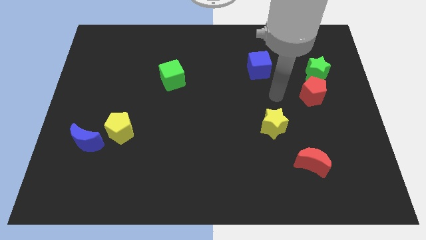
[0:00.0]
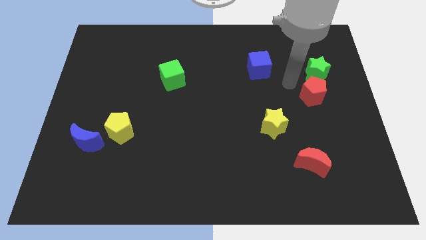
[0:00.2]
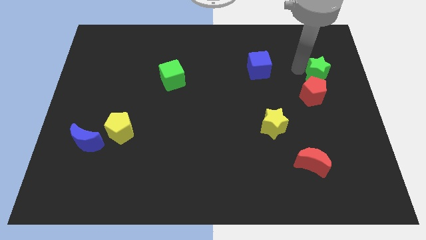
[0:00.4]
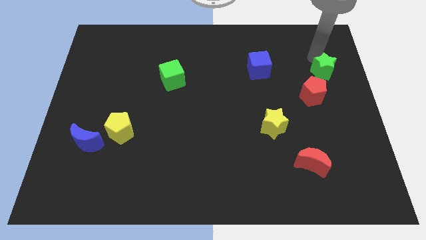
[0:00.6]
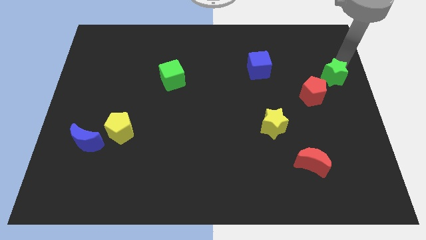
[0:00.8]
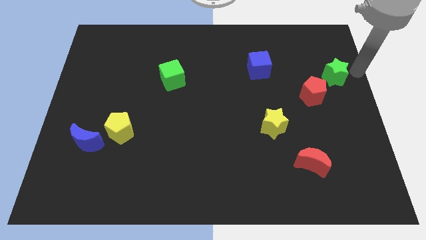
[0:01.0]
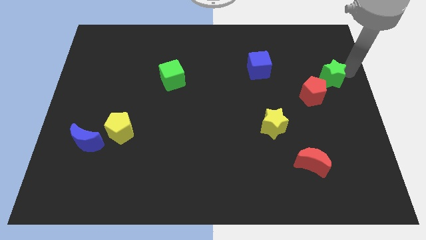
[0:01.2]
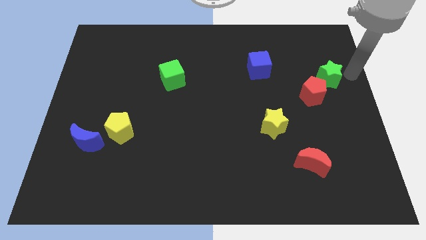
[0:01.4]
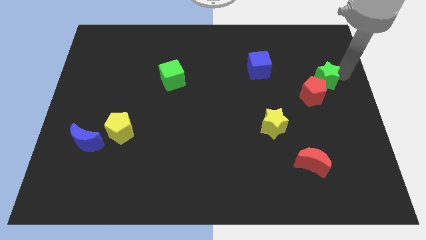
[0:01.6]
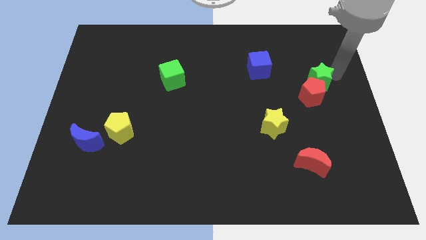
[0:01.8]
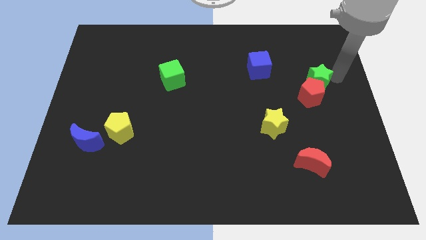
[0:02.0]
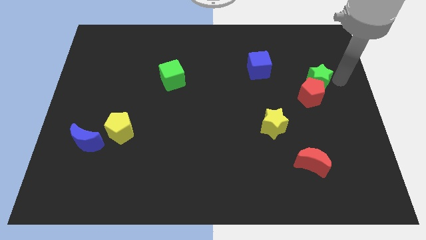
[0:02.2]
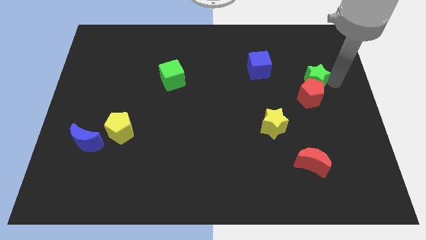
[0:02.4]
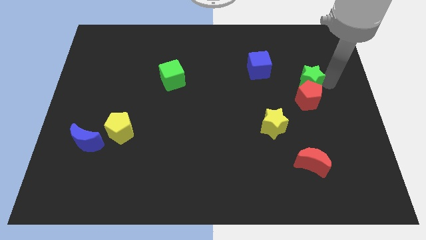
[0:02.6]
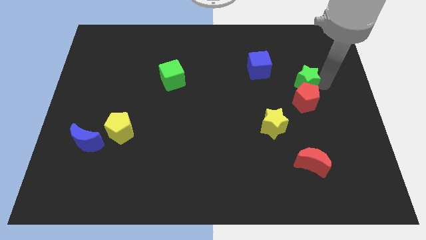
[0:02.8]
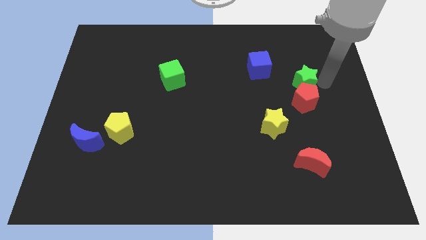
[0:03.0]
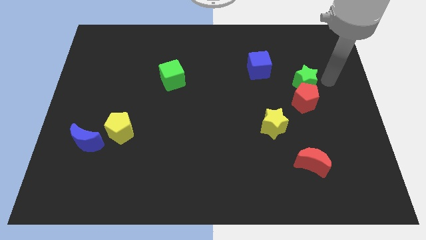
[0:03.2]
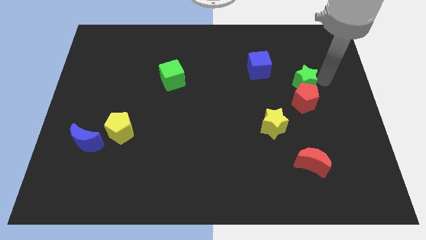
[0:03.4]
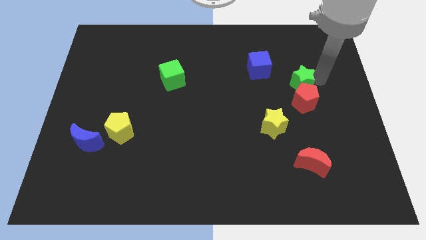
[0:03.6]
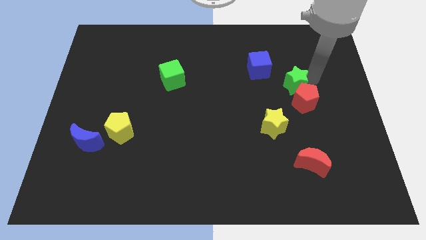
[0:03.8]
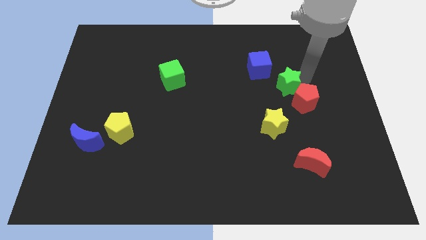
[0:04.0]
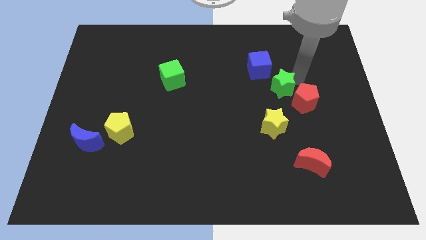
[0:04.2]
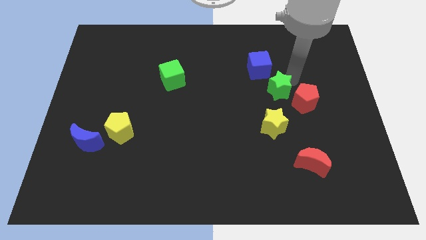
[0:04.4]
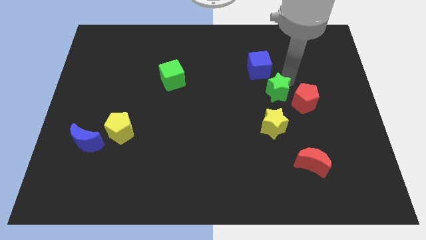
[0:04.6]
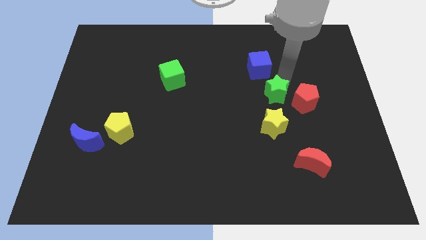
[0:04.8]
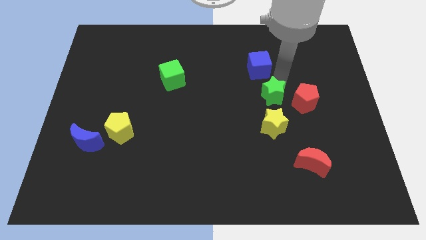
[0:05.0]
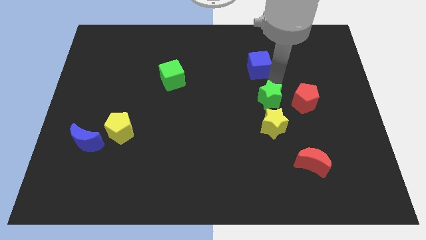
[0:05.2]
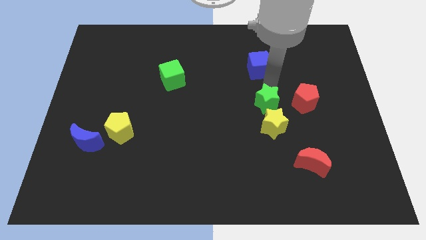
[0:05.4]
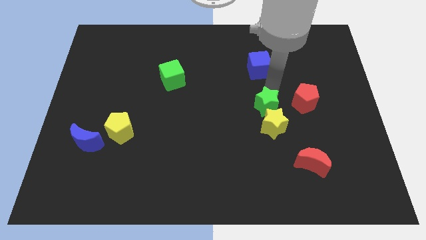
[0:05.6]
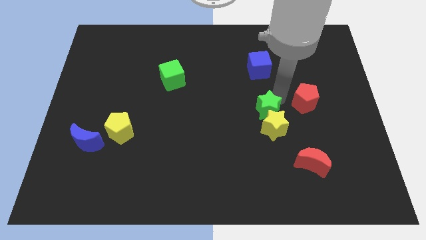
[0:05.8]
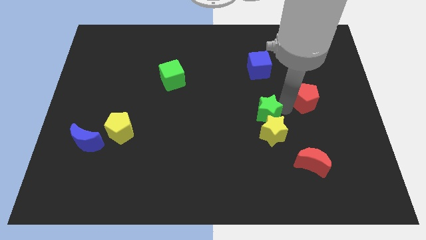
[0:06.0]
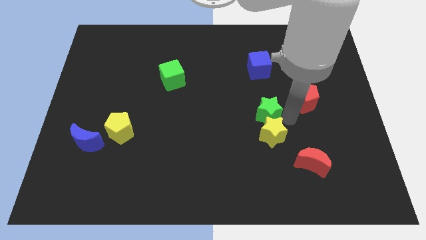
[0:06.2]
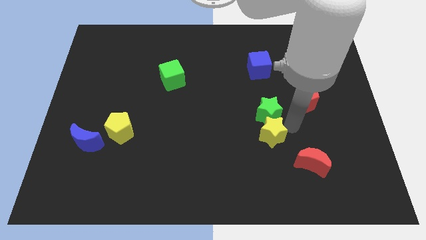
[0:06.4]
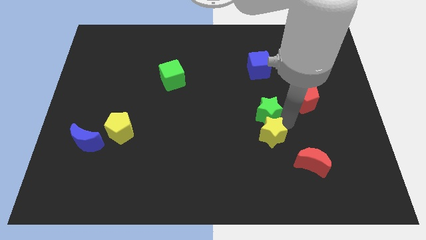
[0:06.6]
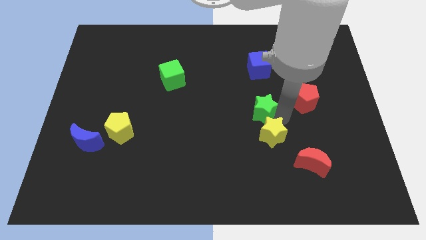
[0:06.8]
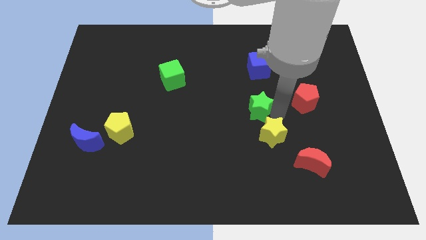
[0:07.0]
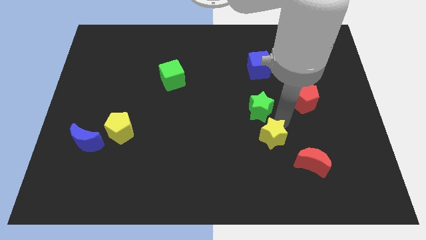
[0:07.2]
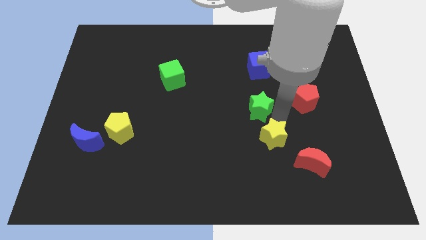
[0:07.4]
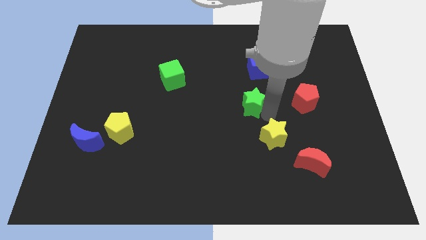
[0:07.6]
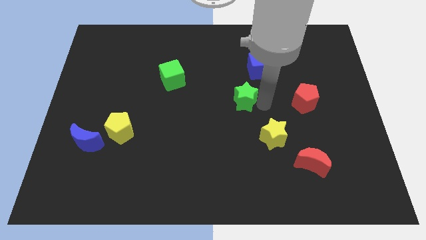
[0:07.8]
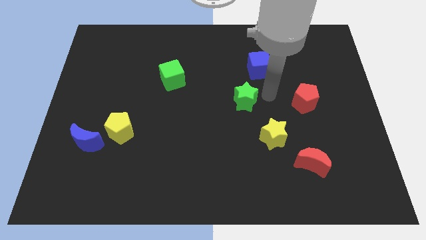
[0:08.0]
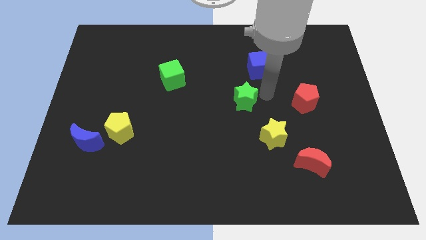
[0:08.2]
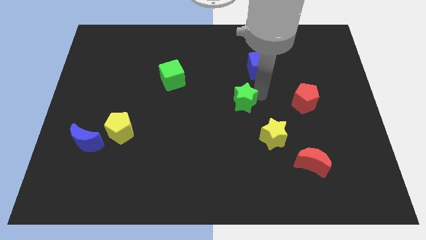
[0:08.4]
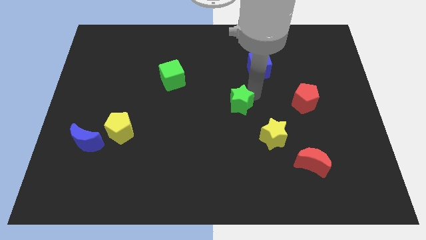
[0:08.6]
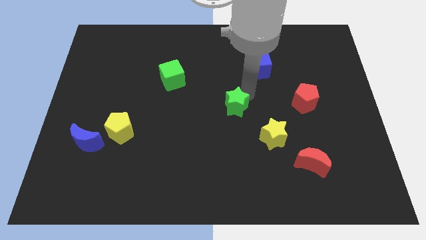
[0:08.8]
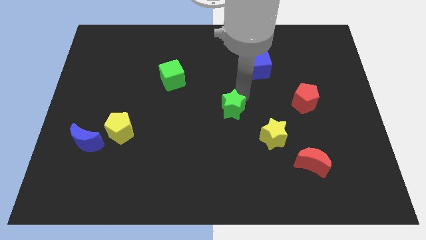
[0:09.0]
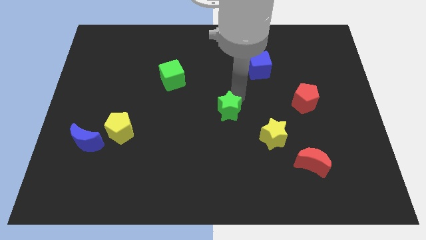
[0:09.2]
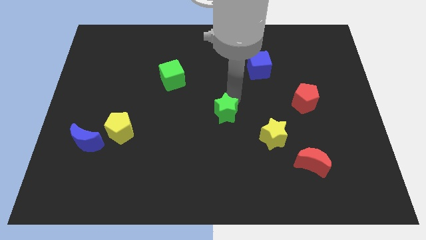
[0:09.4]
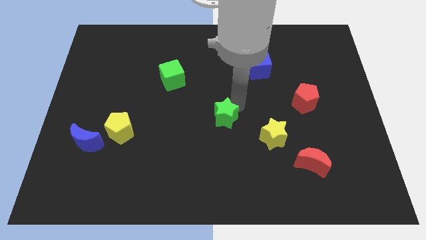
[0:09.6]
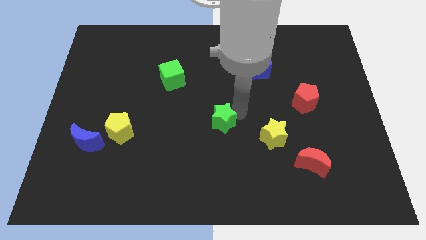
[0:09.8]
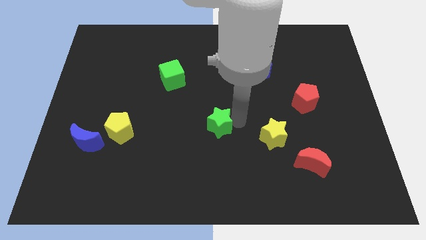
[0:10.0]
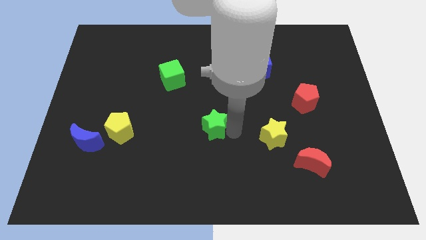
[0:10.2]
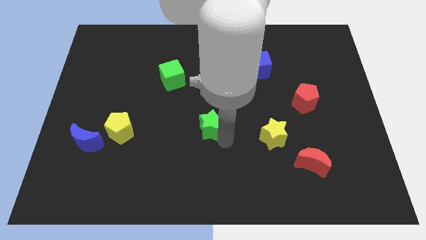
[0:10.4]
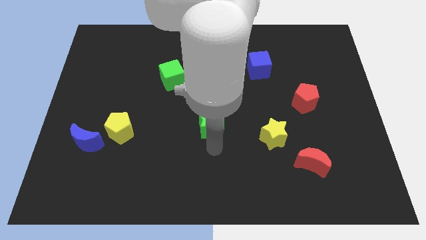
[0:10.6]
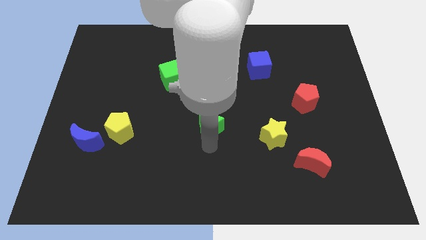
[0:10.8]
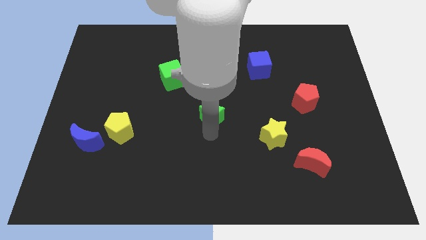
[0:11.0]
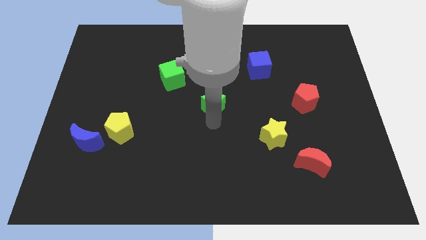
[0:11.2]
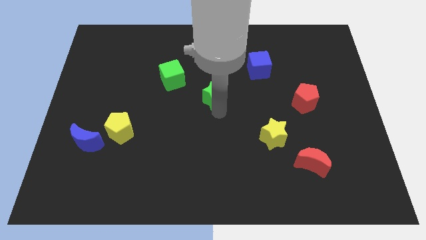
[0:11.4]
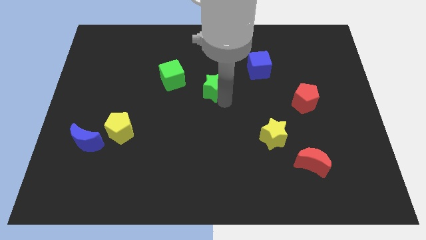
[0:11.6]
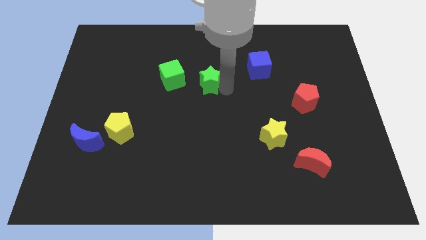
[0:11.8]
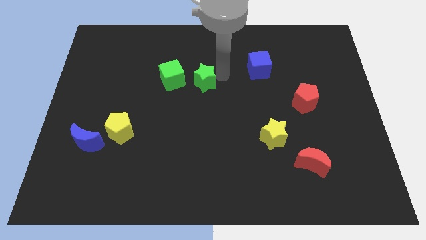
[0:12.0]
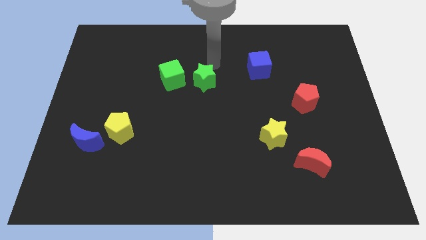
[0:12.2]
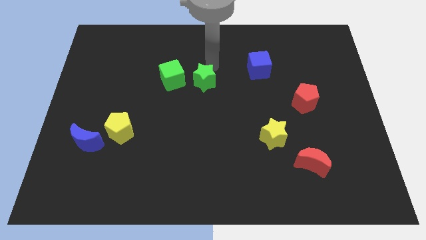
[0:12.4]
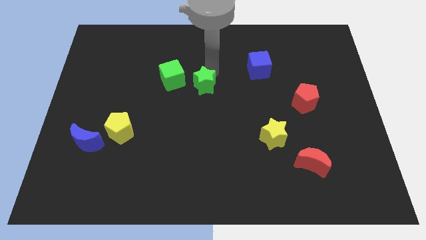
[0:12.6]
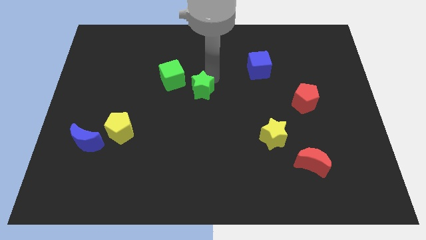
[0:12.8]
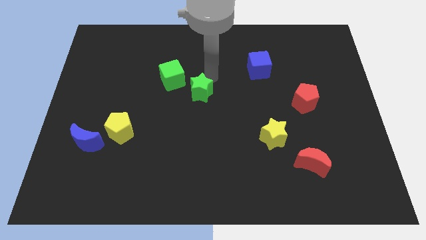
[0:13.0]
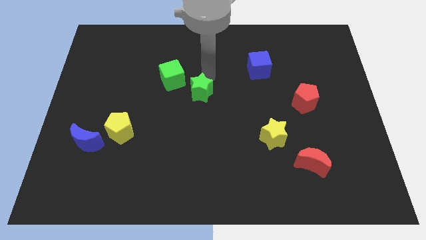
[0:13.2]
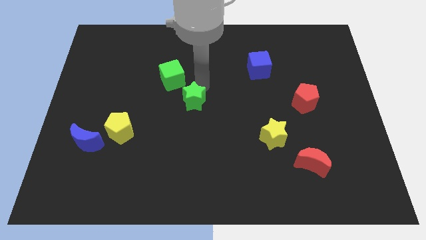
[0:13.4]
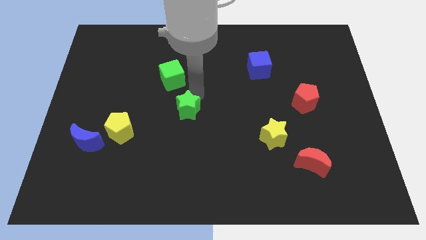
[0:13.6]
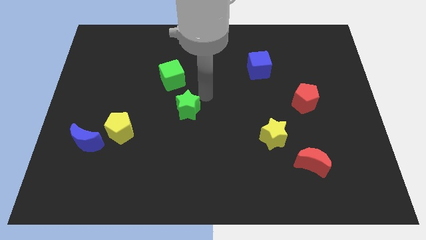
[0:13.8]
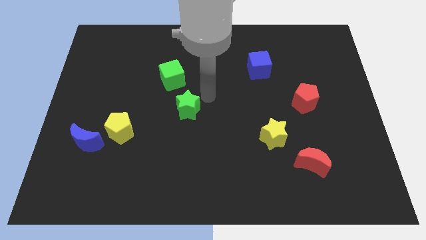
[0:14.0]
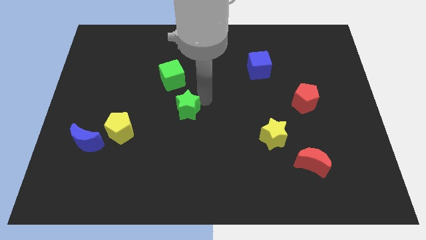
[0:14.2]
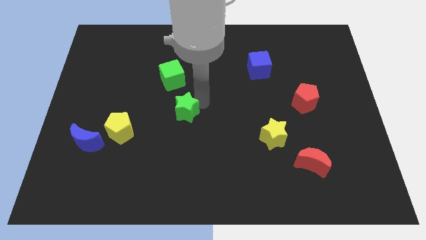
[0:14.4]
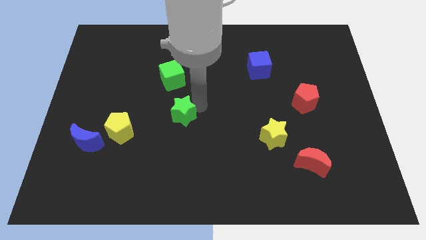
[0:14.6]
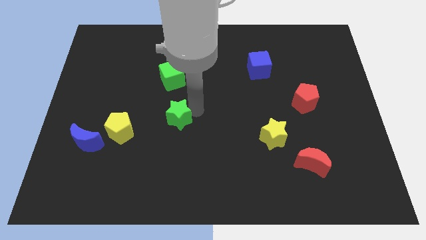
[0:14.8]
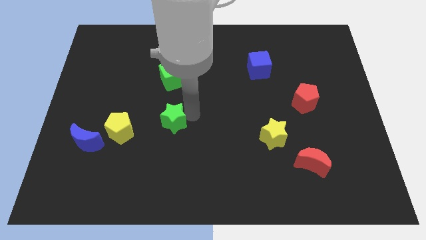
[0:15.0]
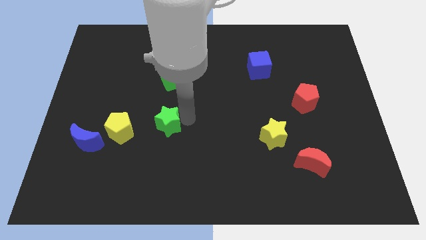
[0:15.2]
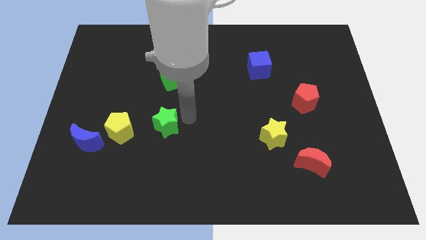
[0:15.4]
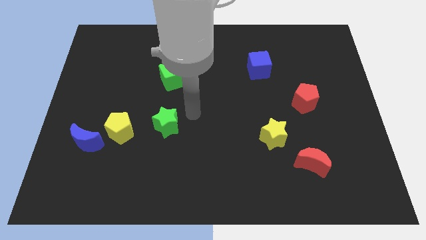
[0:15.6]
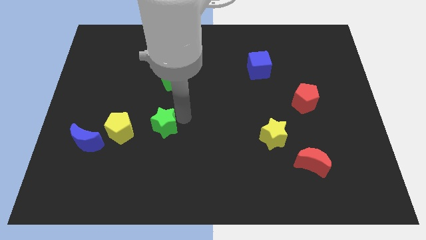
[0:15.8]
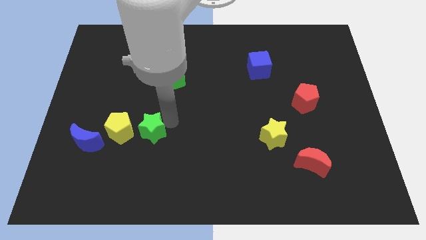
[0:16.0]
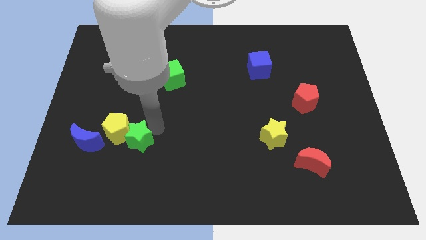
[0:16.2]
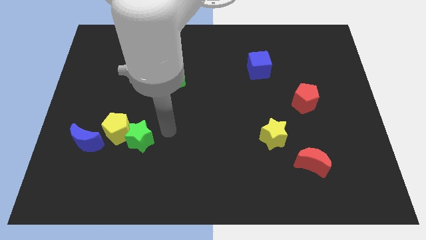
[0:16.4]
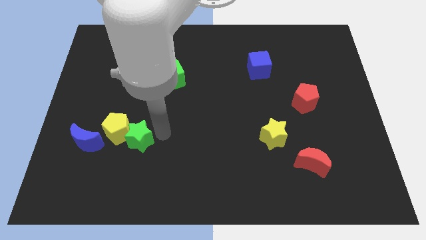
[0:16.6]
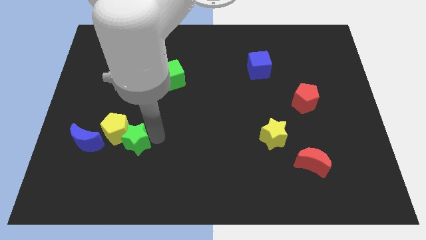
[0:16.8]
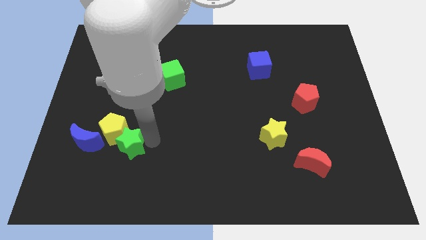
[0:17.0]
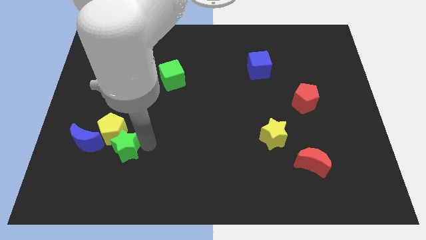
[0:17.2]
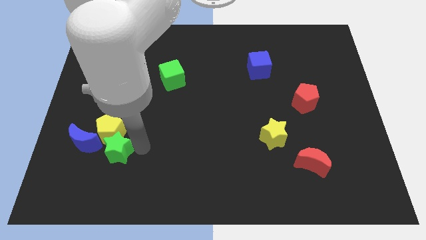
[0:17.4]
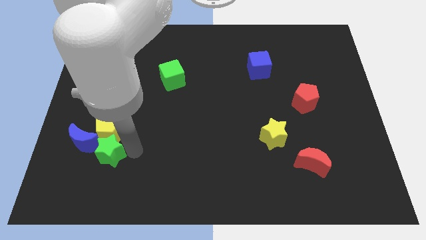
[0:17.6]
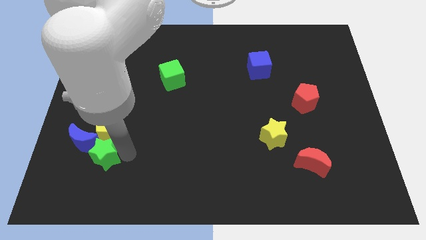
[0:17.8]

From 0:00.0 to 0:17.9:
slide the green star towards the blue moon
